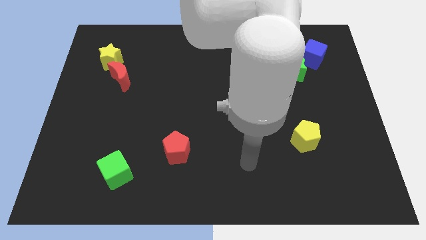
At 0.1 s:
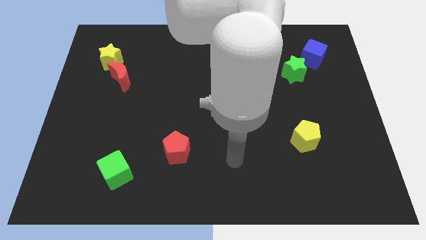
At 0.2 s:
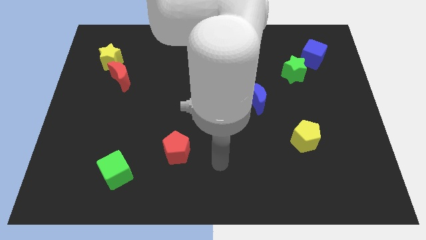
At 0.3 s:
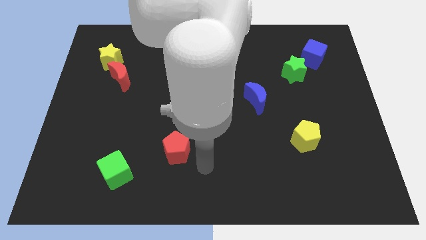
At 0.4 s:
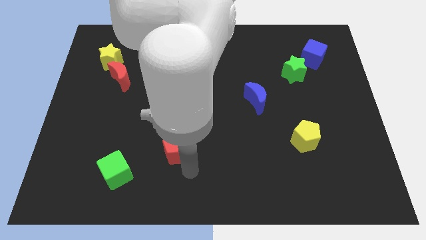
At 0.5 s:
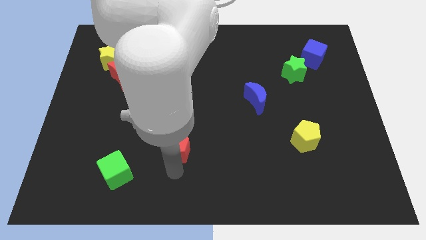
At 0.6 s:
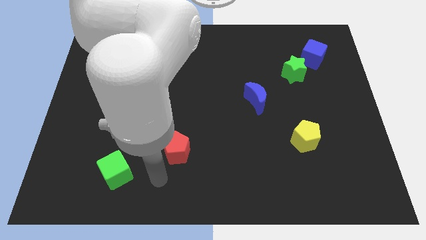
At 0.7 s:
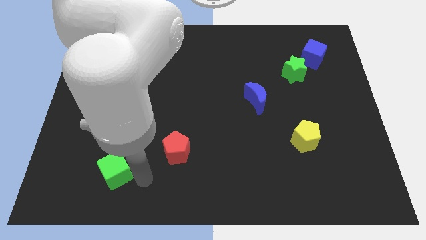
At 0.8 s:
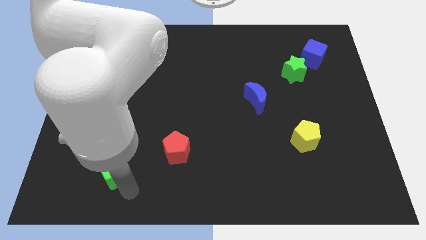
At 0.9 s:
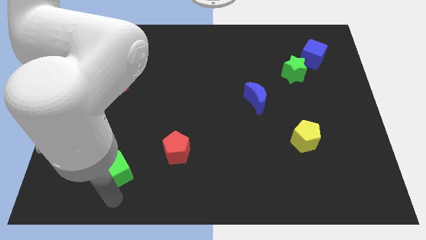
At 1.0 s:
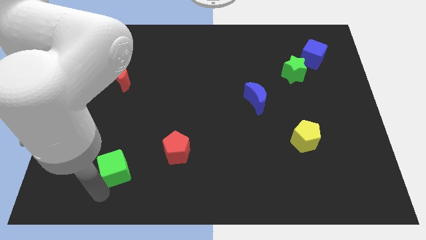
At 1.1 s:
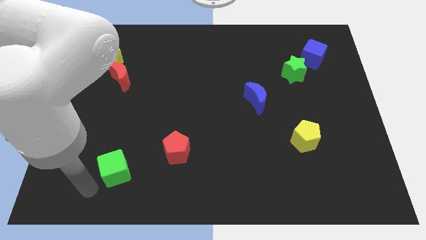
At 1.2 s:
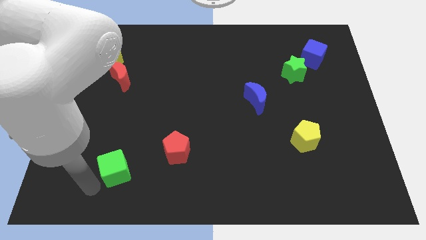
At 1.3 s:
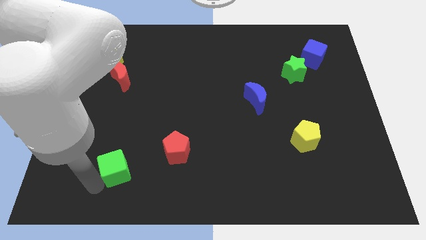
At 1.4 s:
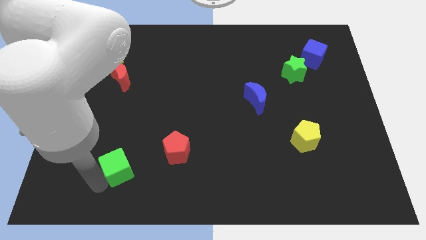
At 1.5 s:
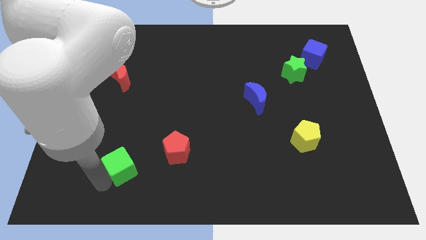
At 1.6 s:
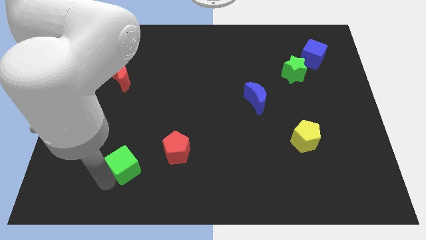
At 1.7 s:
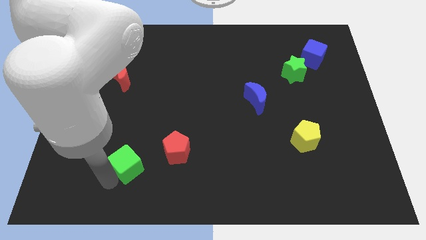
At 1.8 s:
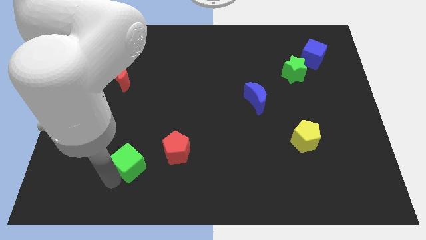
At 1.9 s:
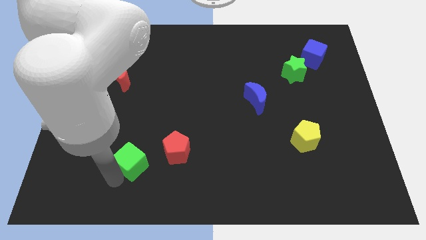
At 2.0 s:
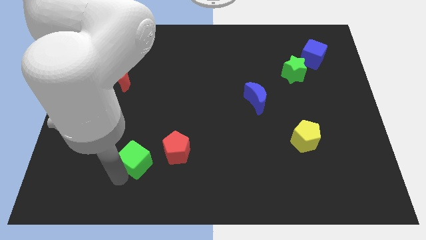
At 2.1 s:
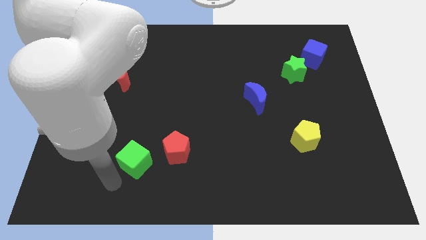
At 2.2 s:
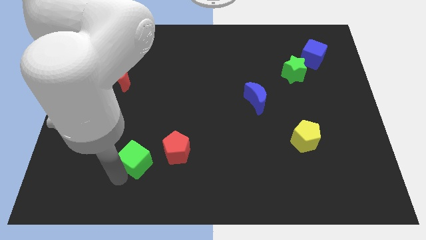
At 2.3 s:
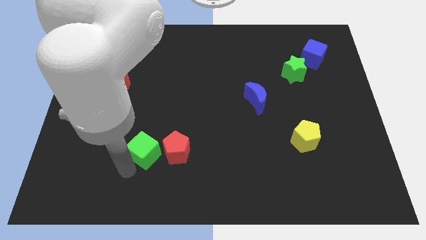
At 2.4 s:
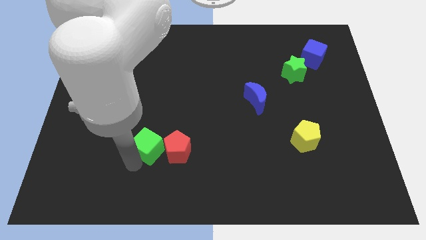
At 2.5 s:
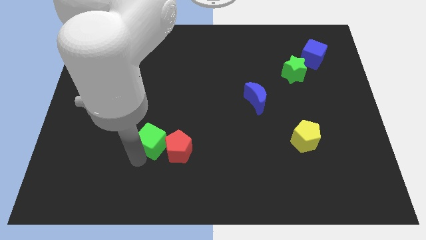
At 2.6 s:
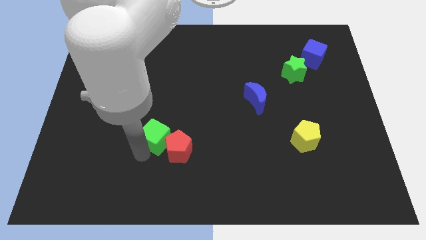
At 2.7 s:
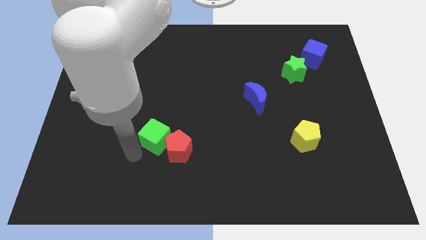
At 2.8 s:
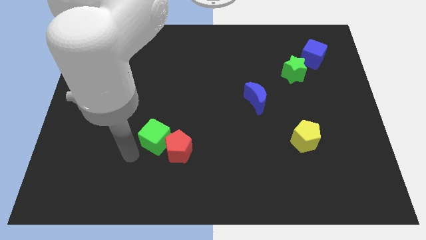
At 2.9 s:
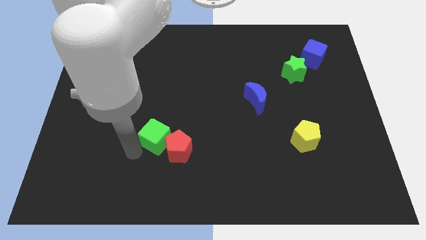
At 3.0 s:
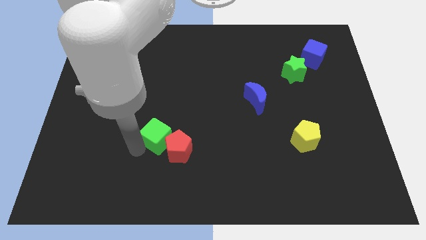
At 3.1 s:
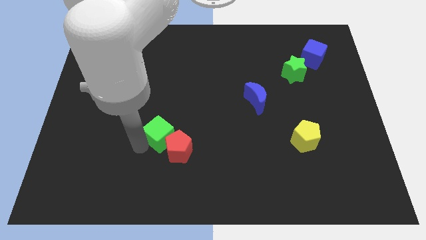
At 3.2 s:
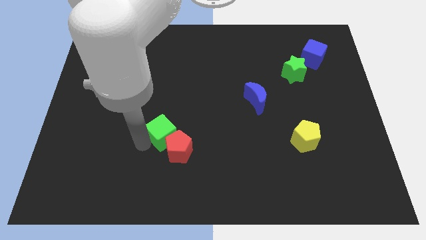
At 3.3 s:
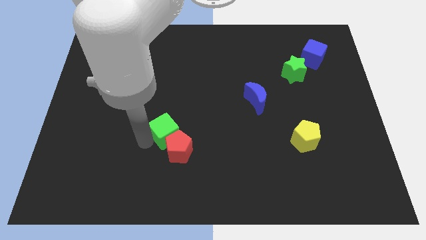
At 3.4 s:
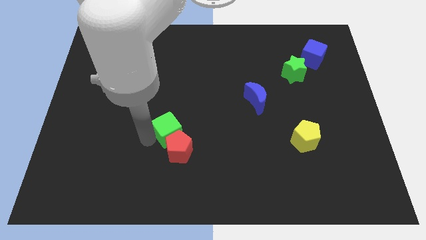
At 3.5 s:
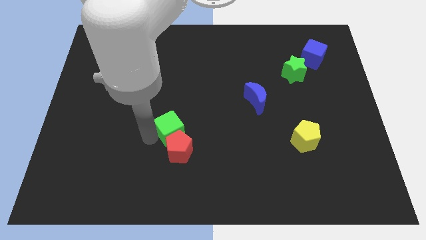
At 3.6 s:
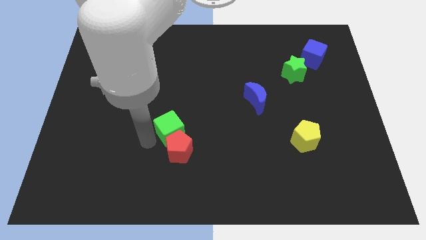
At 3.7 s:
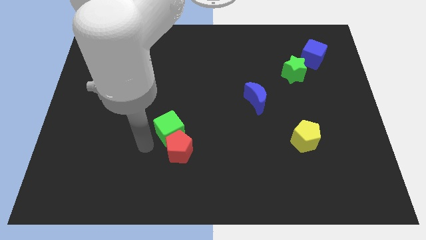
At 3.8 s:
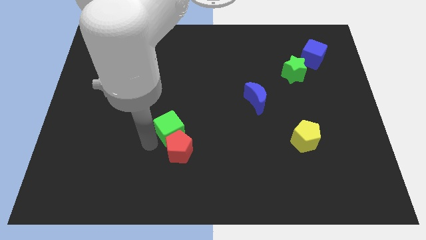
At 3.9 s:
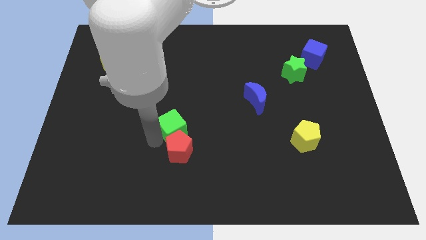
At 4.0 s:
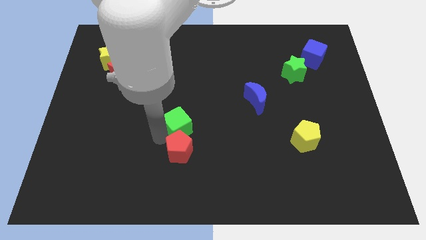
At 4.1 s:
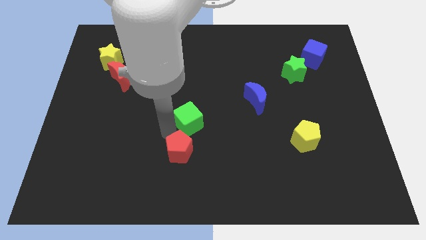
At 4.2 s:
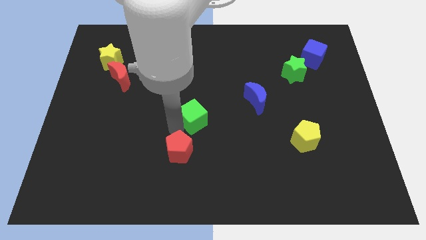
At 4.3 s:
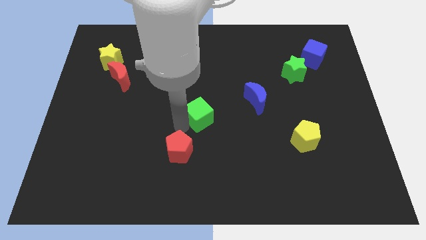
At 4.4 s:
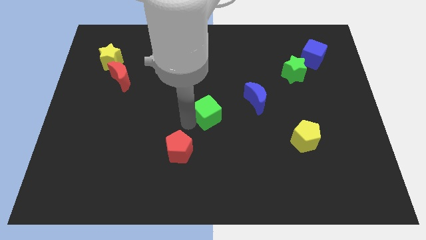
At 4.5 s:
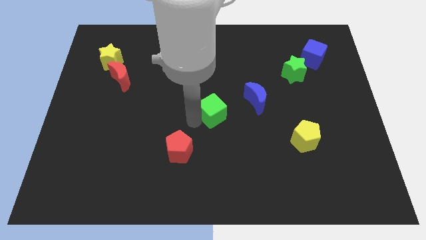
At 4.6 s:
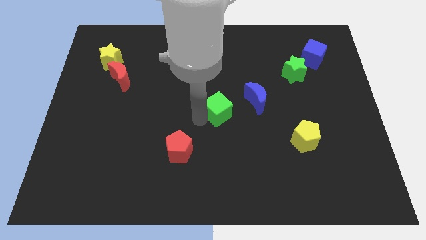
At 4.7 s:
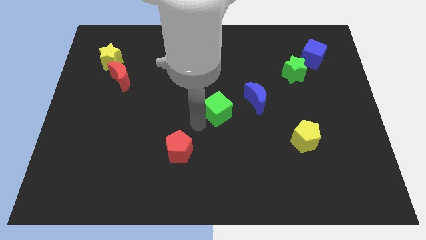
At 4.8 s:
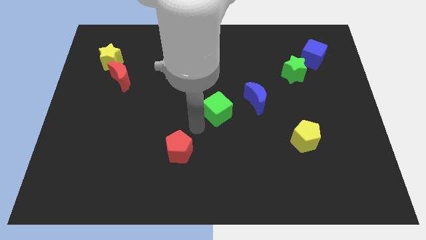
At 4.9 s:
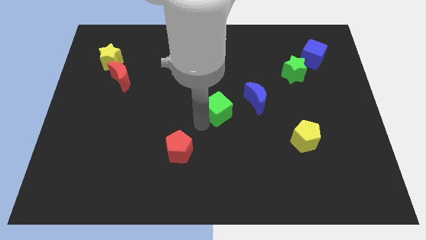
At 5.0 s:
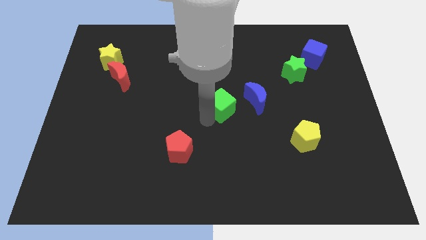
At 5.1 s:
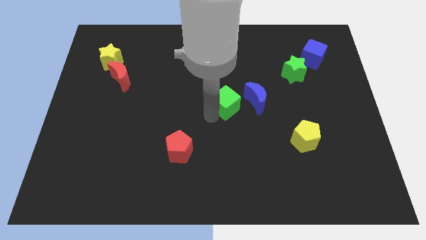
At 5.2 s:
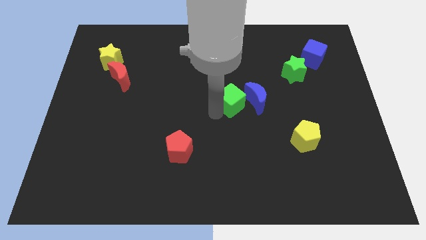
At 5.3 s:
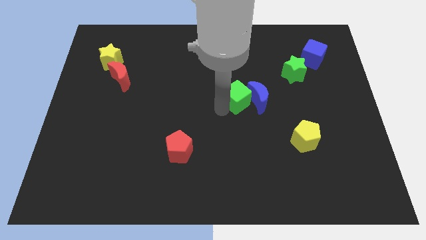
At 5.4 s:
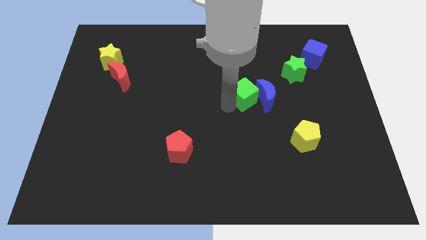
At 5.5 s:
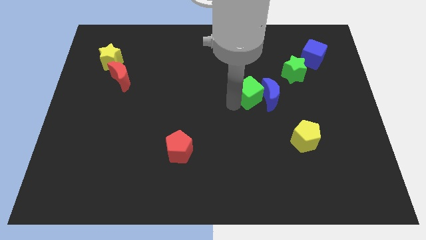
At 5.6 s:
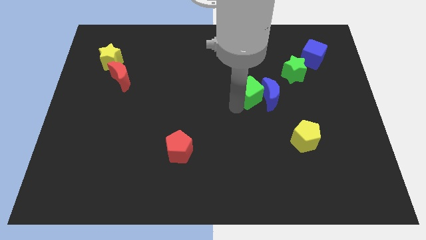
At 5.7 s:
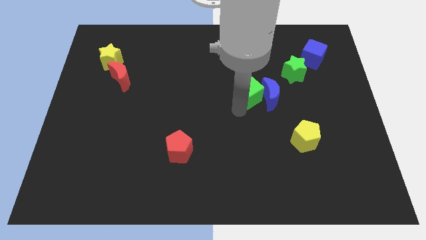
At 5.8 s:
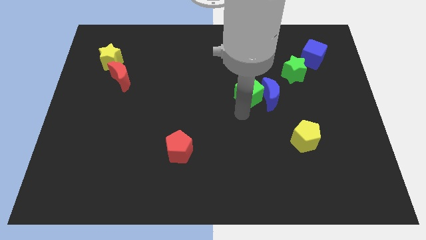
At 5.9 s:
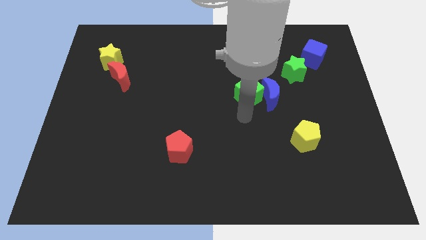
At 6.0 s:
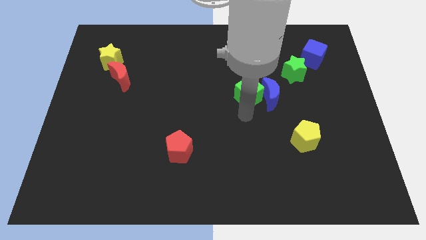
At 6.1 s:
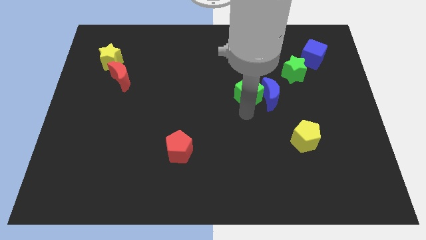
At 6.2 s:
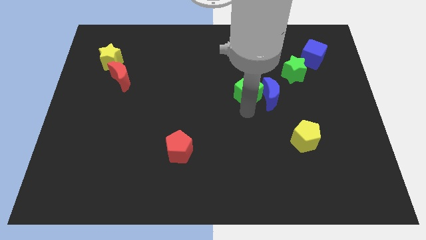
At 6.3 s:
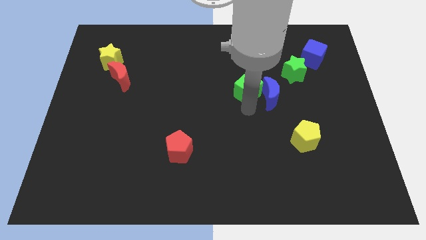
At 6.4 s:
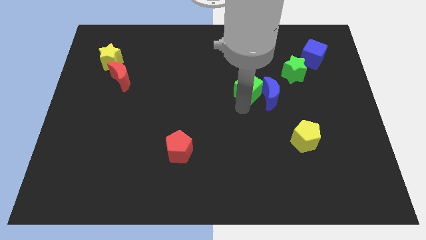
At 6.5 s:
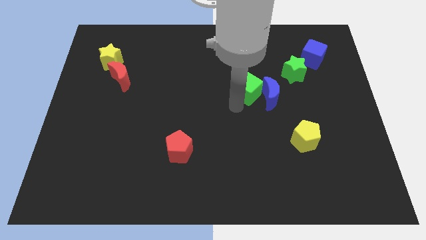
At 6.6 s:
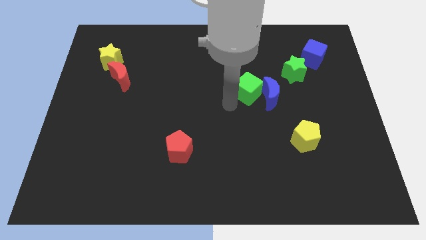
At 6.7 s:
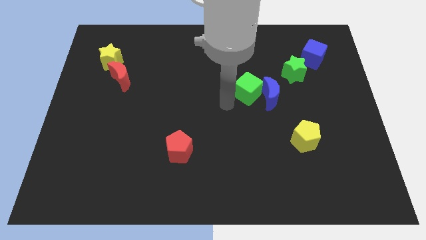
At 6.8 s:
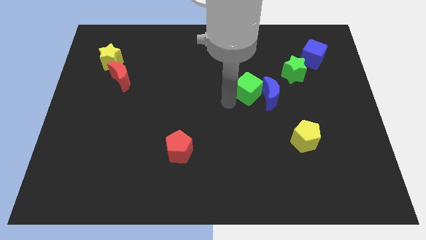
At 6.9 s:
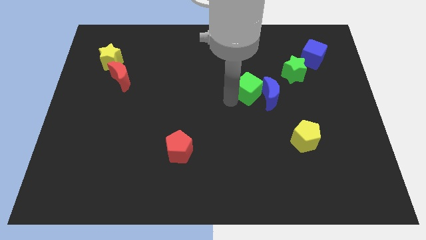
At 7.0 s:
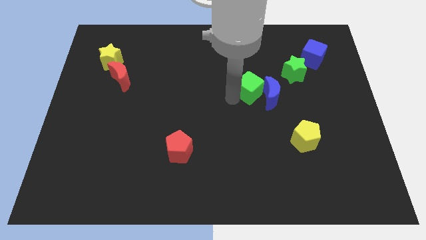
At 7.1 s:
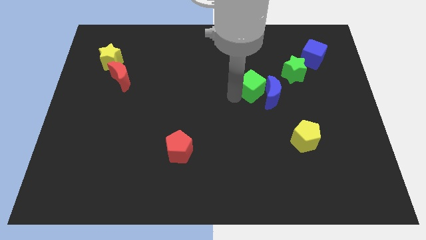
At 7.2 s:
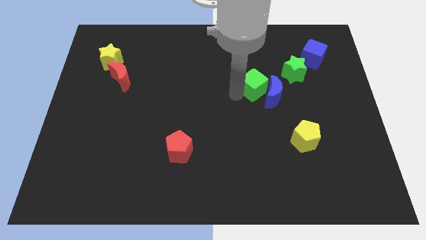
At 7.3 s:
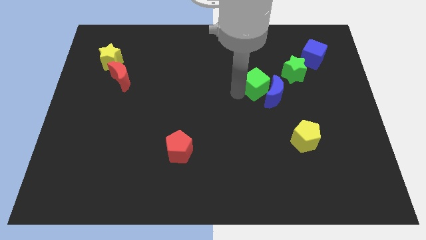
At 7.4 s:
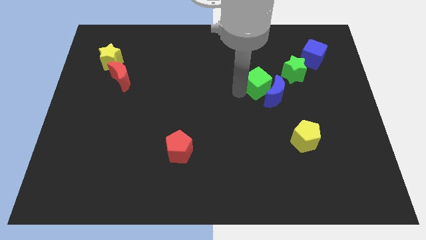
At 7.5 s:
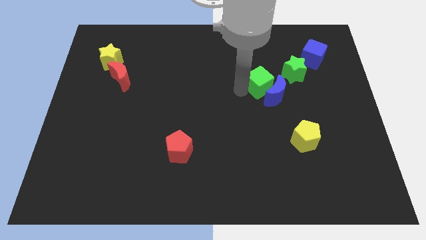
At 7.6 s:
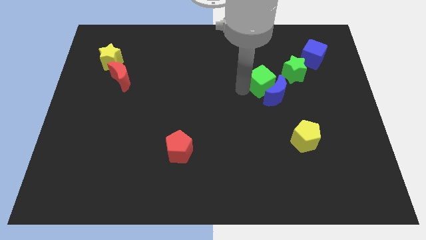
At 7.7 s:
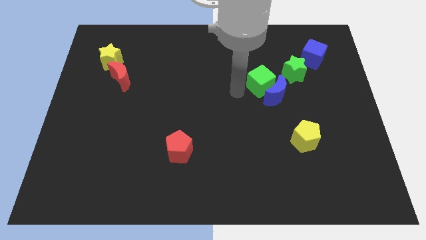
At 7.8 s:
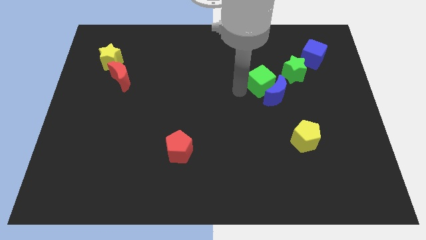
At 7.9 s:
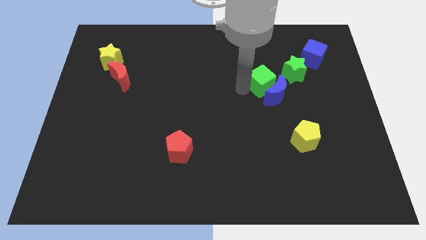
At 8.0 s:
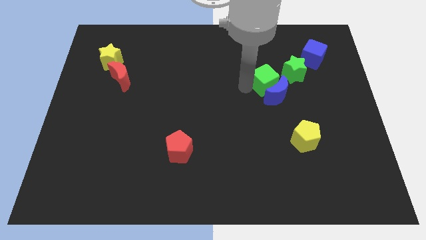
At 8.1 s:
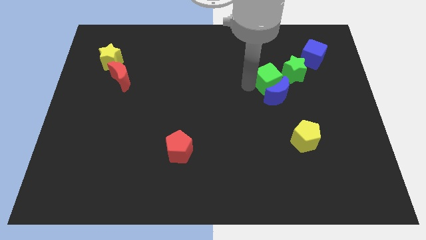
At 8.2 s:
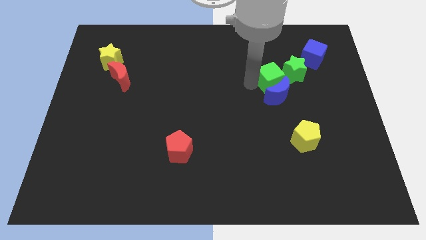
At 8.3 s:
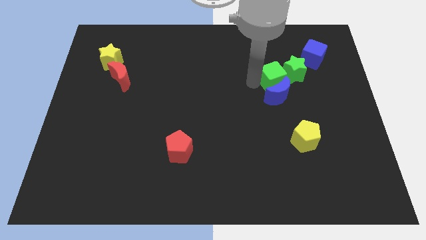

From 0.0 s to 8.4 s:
put the green cube to the green star
